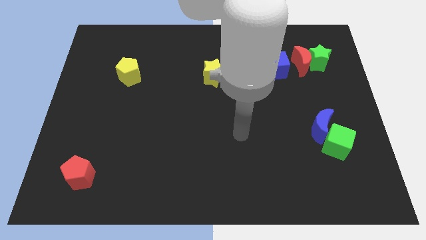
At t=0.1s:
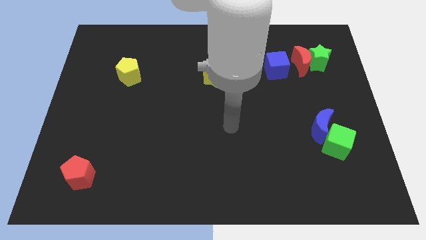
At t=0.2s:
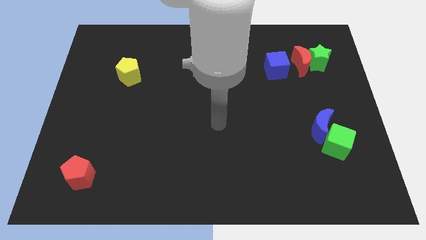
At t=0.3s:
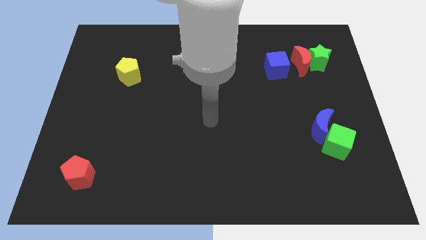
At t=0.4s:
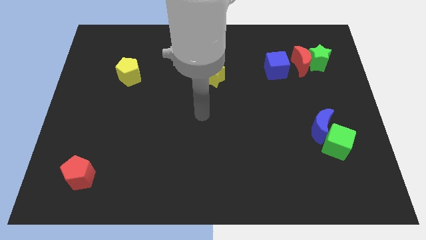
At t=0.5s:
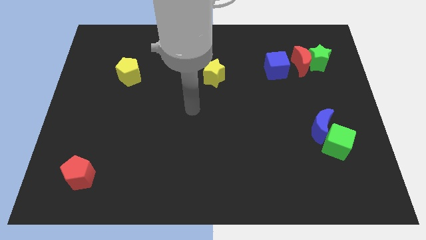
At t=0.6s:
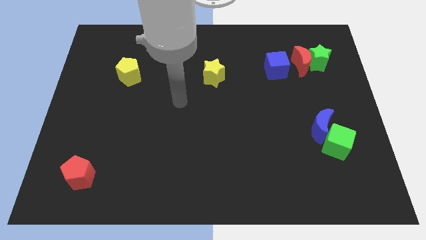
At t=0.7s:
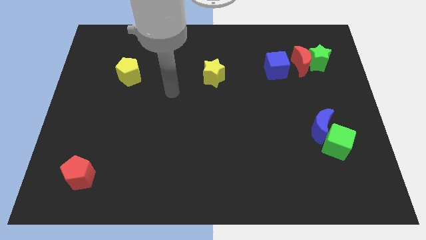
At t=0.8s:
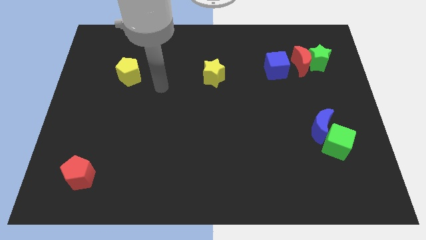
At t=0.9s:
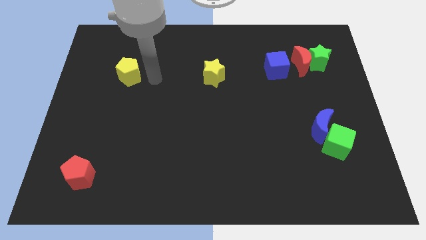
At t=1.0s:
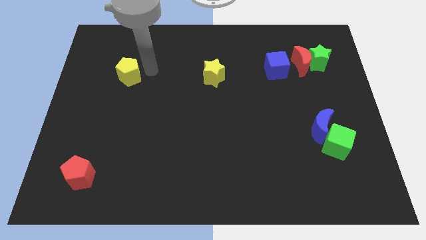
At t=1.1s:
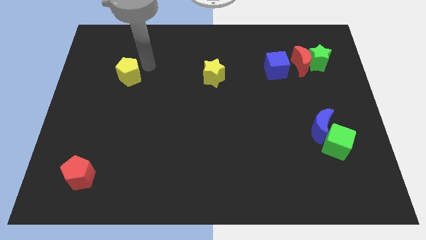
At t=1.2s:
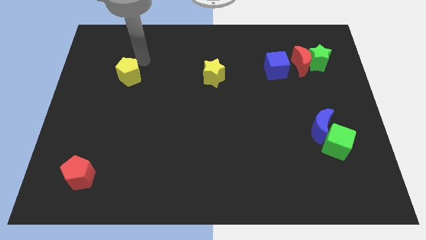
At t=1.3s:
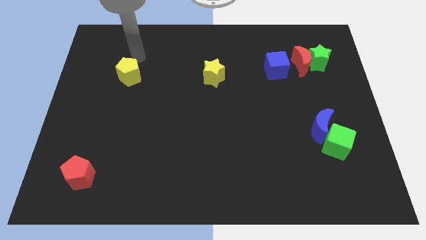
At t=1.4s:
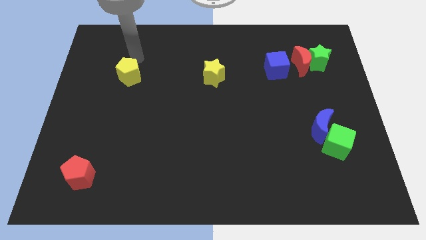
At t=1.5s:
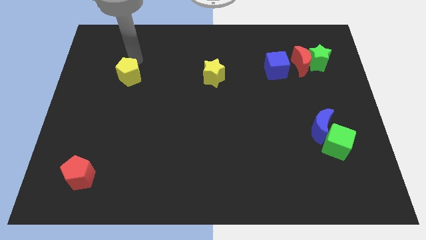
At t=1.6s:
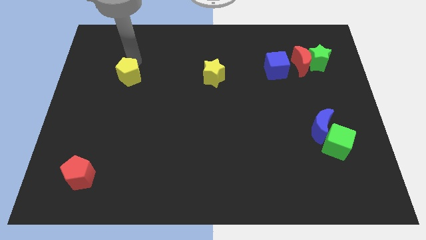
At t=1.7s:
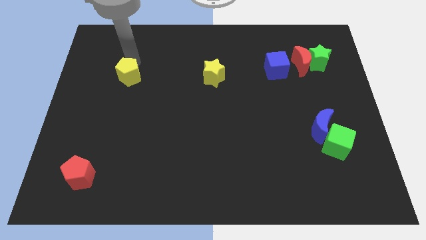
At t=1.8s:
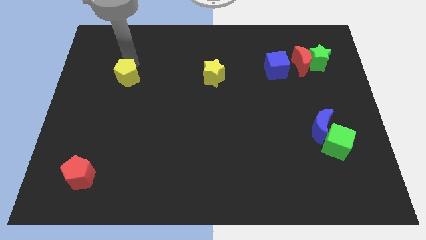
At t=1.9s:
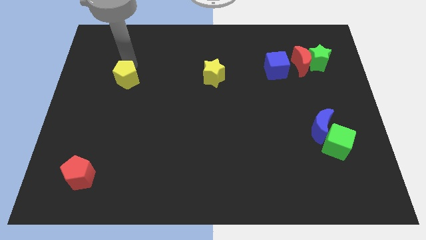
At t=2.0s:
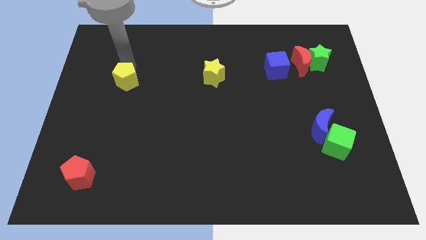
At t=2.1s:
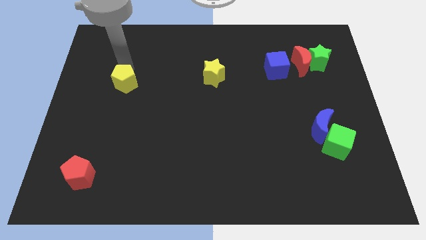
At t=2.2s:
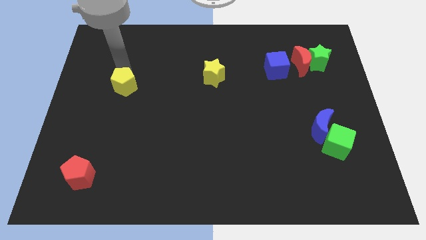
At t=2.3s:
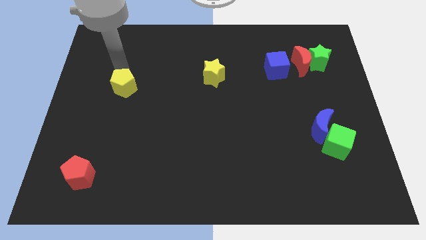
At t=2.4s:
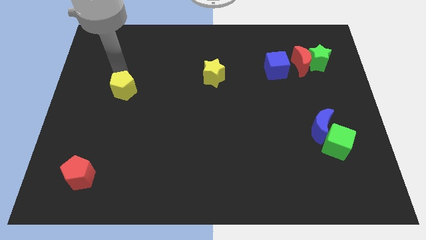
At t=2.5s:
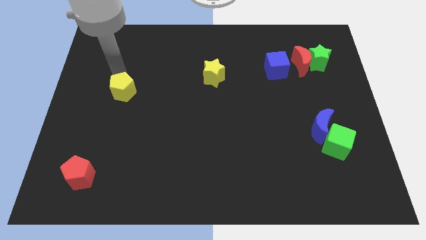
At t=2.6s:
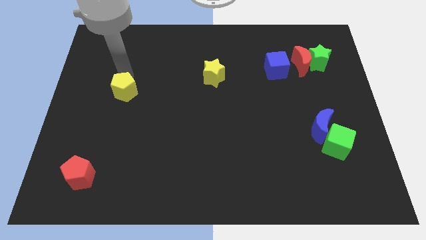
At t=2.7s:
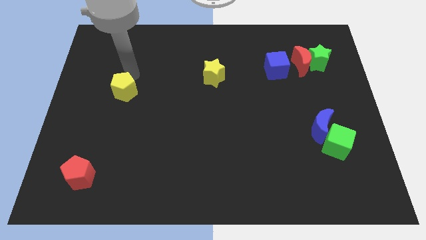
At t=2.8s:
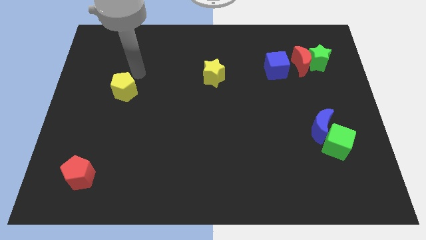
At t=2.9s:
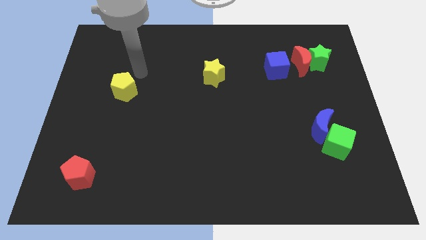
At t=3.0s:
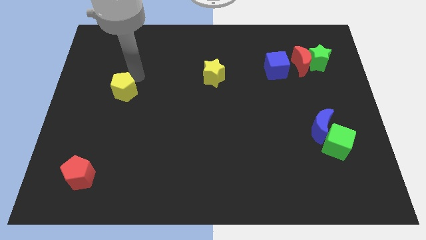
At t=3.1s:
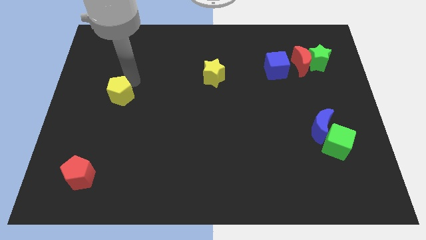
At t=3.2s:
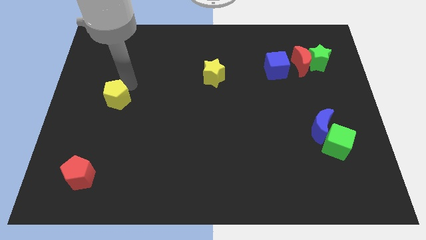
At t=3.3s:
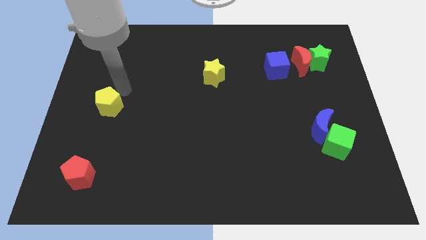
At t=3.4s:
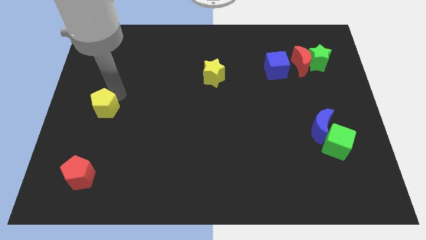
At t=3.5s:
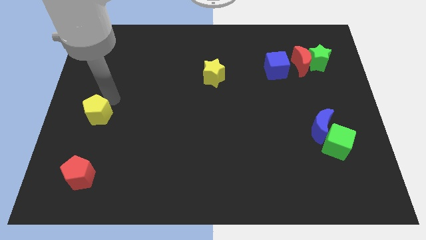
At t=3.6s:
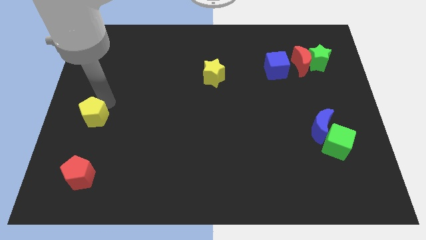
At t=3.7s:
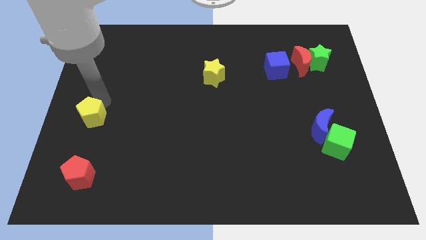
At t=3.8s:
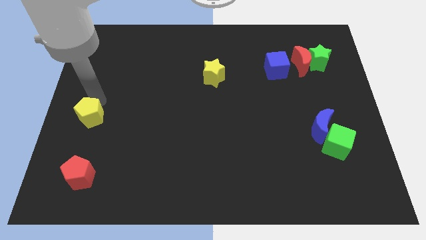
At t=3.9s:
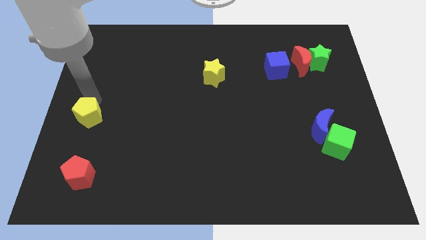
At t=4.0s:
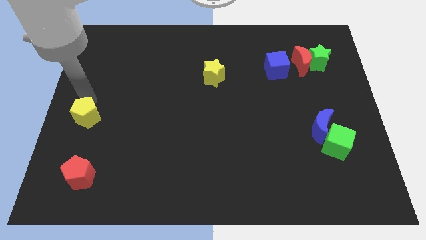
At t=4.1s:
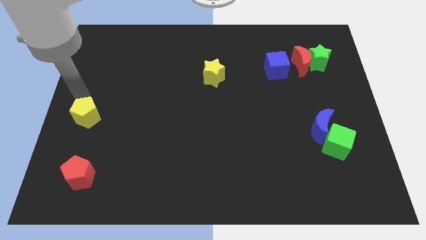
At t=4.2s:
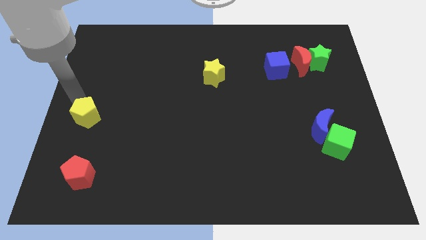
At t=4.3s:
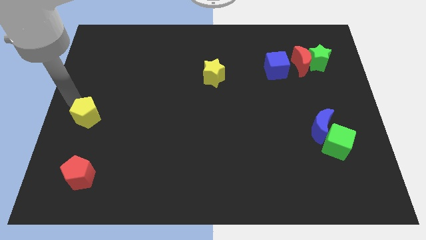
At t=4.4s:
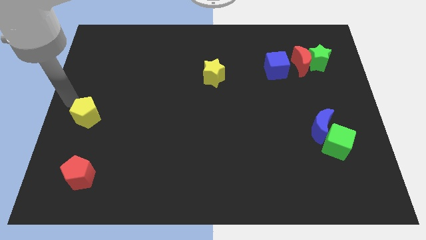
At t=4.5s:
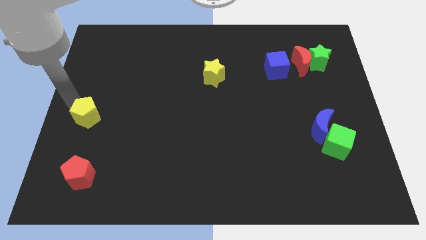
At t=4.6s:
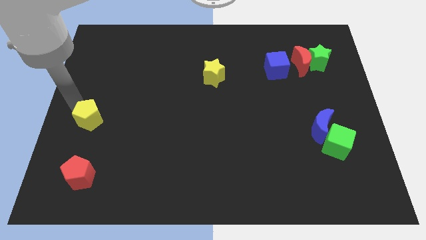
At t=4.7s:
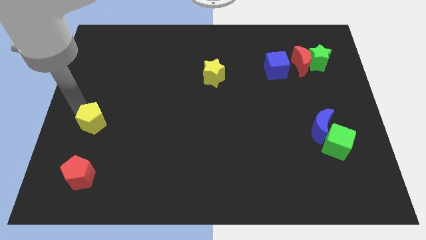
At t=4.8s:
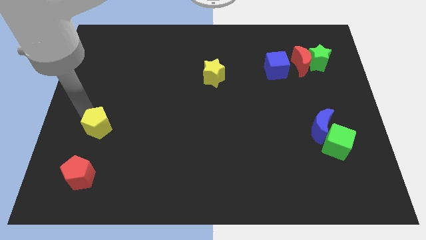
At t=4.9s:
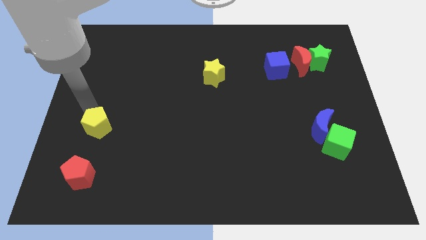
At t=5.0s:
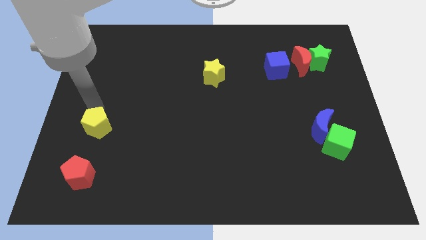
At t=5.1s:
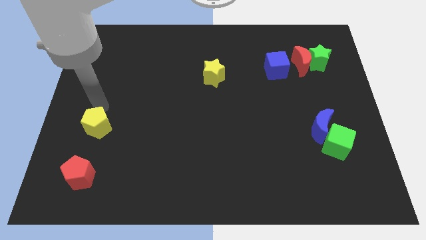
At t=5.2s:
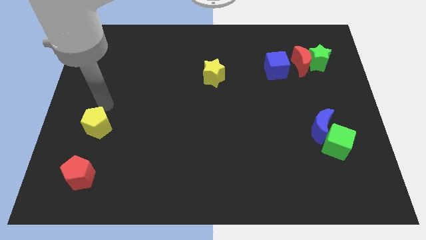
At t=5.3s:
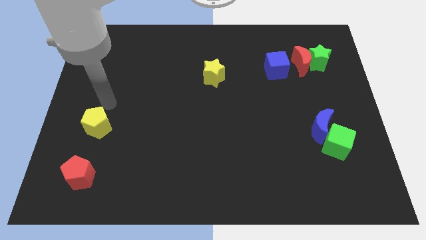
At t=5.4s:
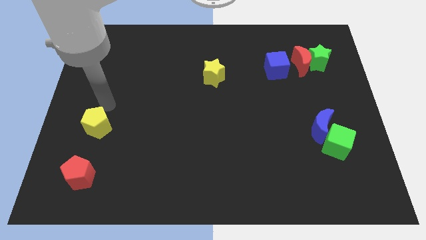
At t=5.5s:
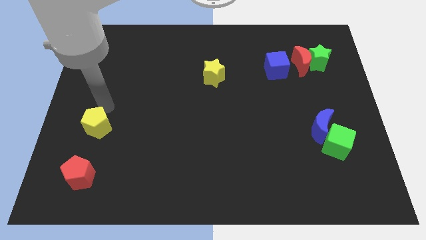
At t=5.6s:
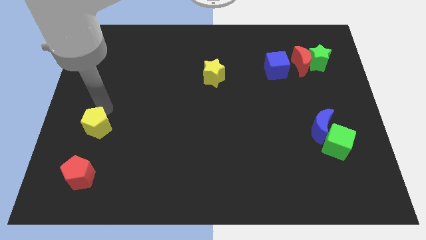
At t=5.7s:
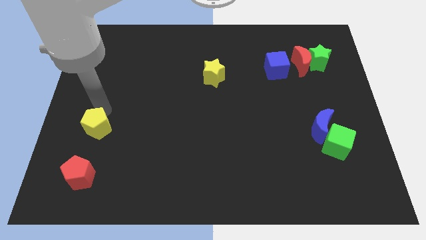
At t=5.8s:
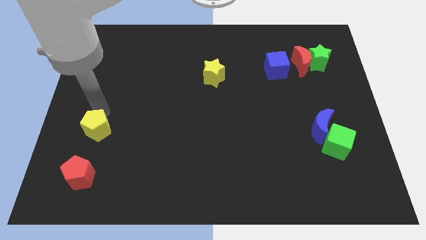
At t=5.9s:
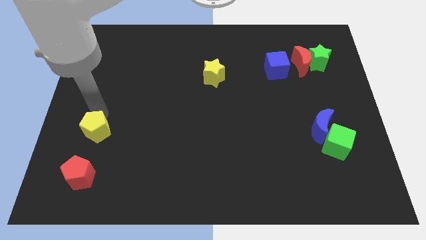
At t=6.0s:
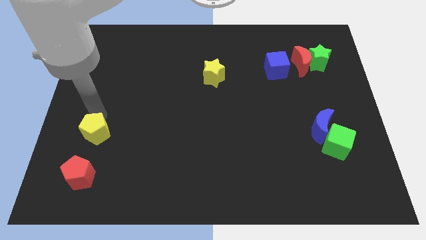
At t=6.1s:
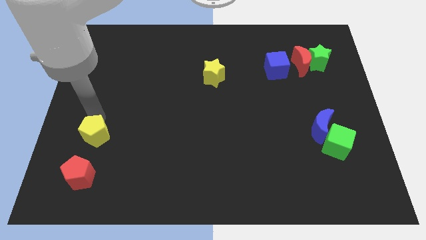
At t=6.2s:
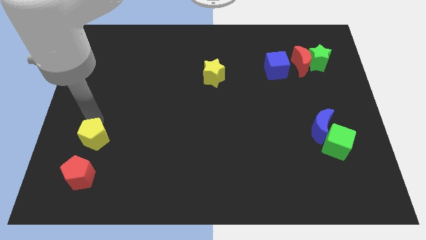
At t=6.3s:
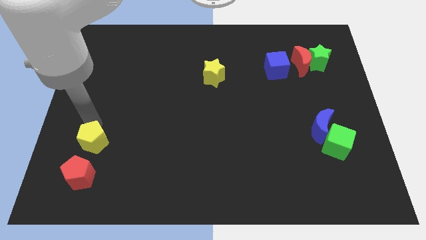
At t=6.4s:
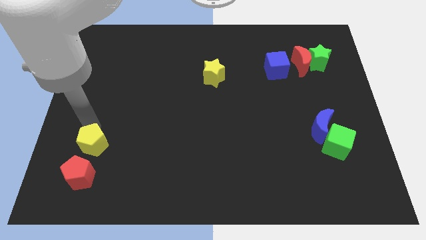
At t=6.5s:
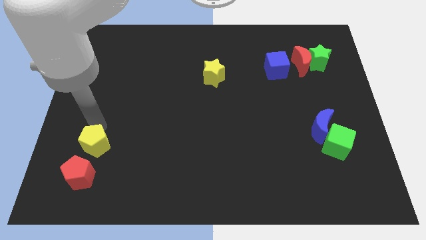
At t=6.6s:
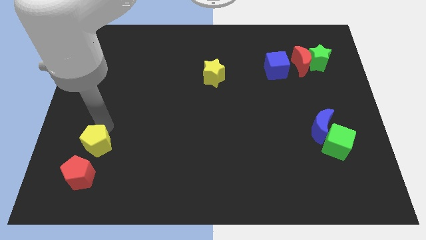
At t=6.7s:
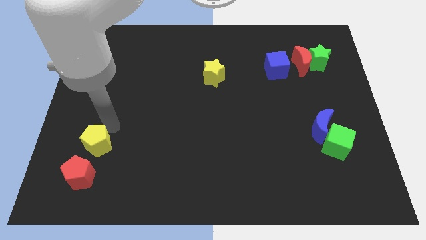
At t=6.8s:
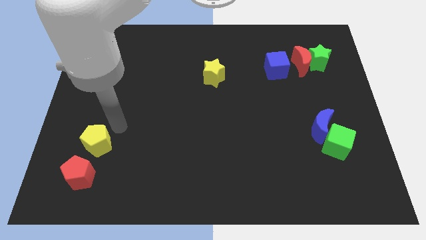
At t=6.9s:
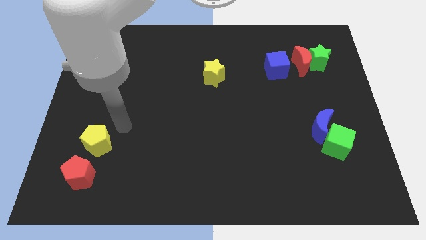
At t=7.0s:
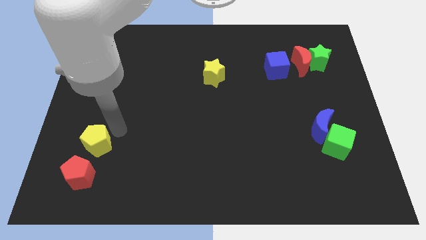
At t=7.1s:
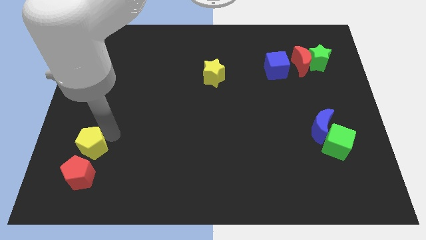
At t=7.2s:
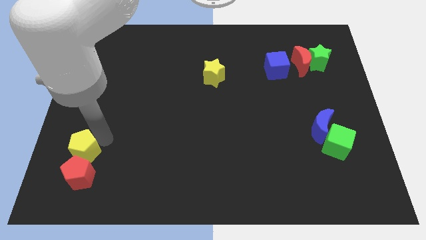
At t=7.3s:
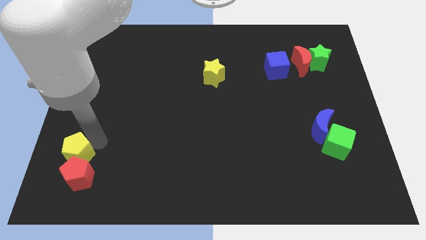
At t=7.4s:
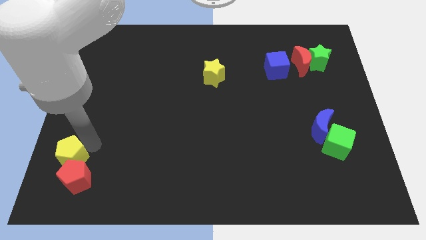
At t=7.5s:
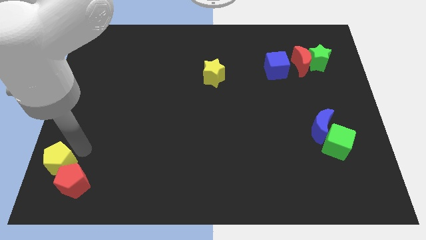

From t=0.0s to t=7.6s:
put the yellow pentagon to the lower left corner
